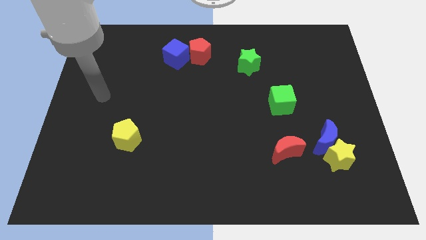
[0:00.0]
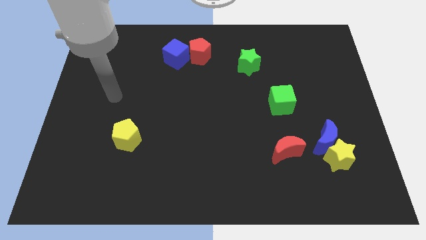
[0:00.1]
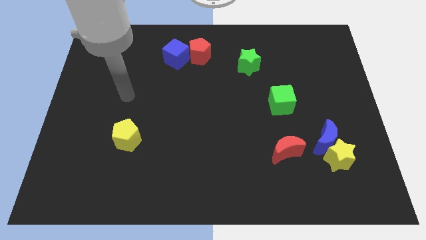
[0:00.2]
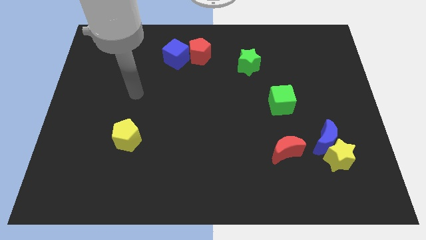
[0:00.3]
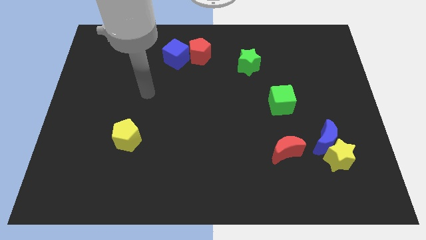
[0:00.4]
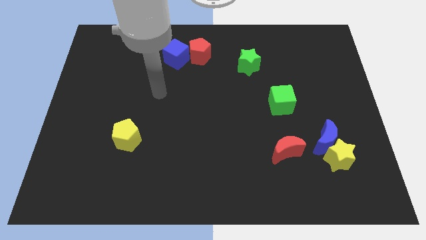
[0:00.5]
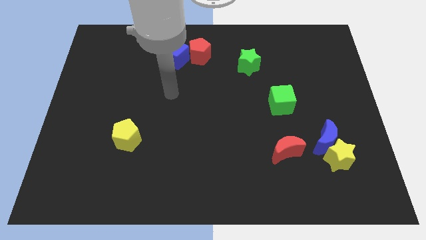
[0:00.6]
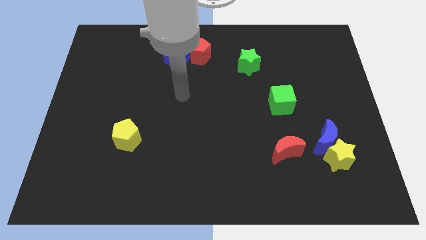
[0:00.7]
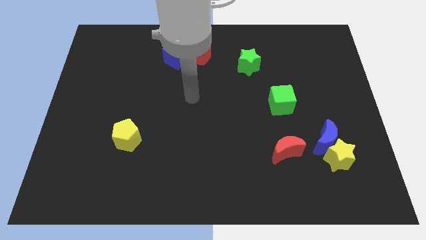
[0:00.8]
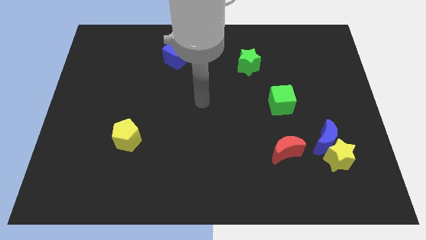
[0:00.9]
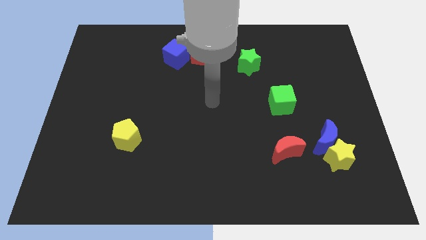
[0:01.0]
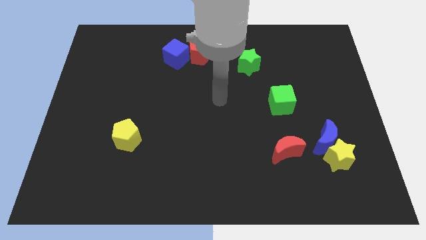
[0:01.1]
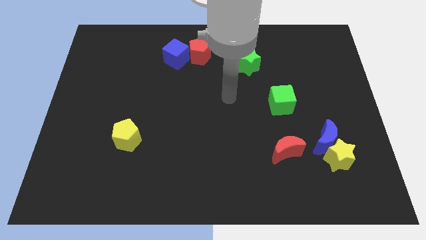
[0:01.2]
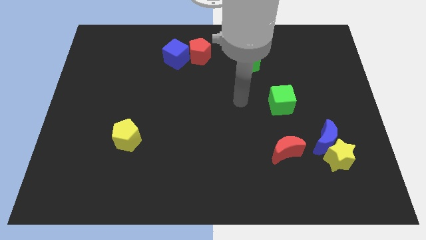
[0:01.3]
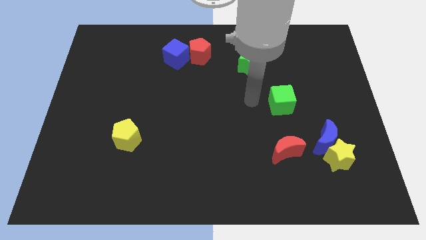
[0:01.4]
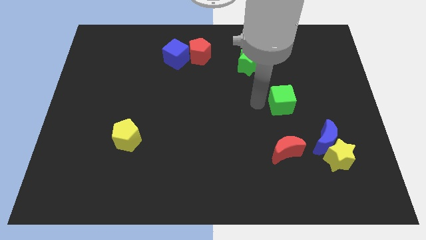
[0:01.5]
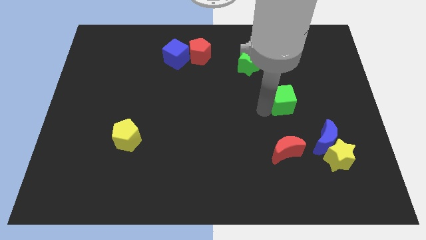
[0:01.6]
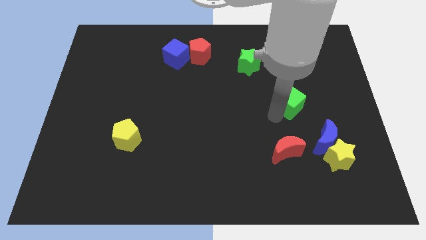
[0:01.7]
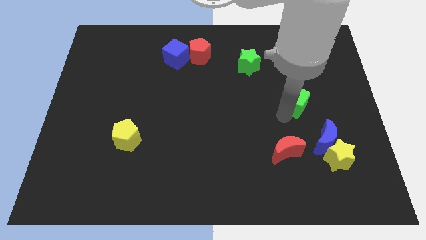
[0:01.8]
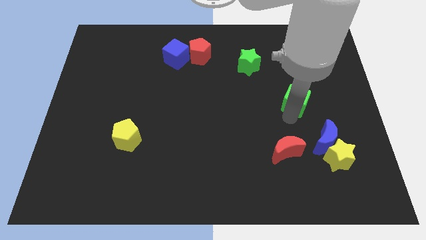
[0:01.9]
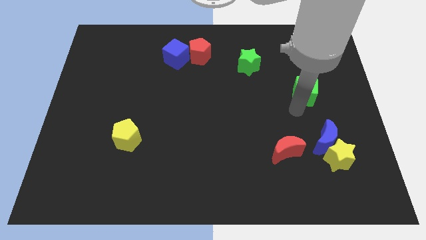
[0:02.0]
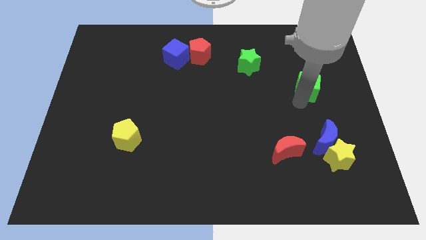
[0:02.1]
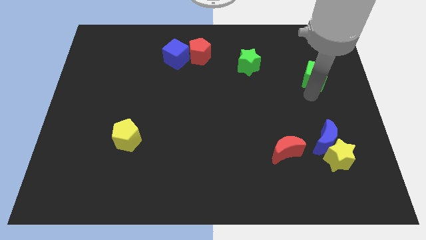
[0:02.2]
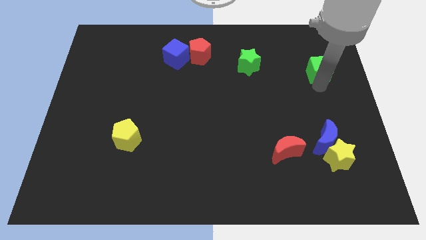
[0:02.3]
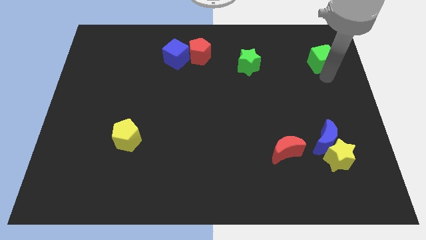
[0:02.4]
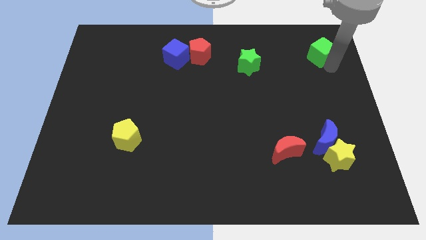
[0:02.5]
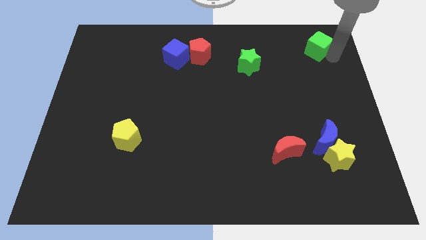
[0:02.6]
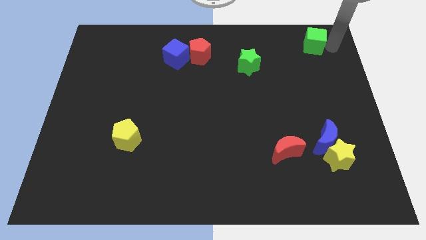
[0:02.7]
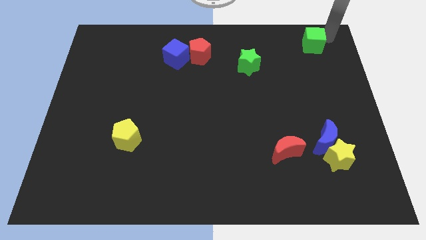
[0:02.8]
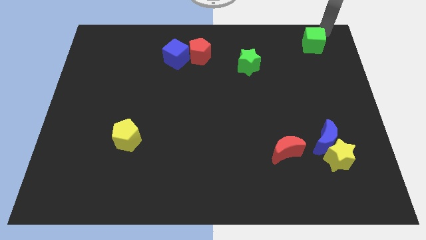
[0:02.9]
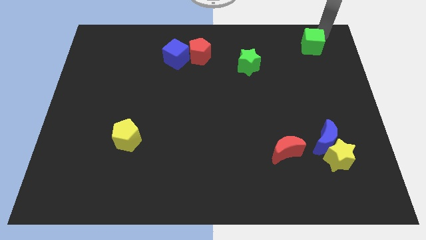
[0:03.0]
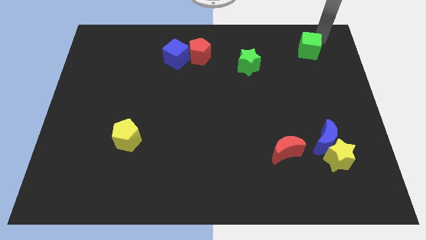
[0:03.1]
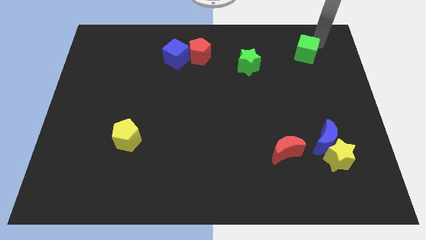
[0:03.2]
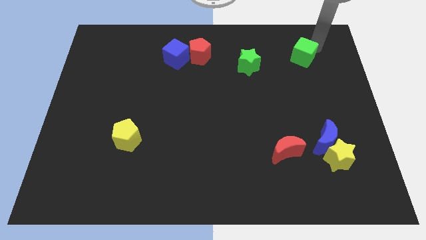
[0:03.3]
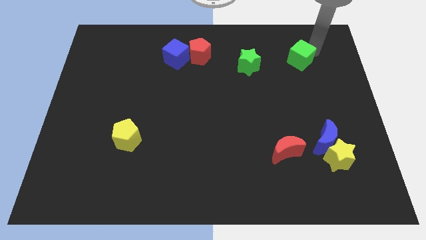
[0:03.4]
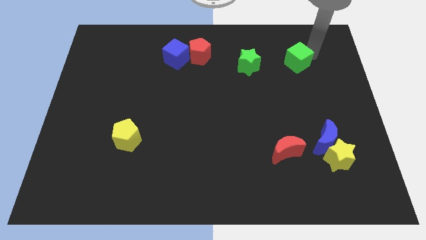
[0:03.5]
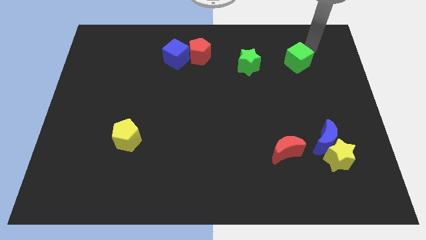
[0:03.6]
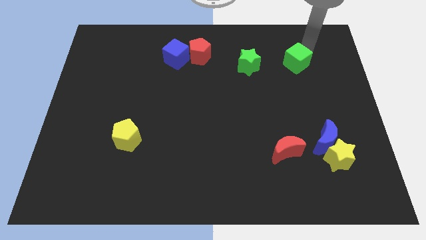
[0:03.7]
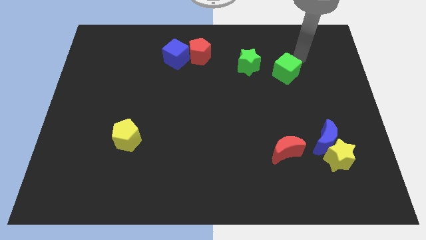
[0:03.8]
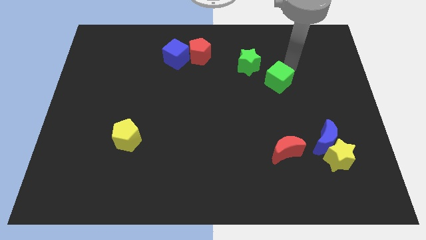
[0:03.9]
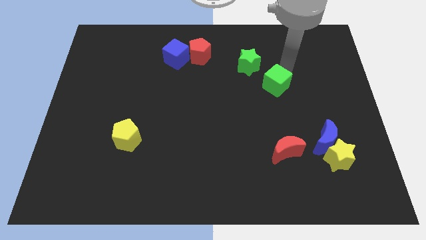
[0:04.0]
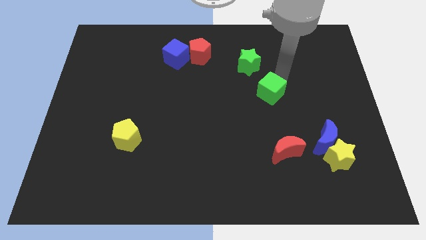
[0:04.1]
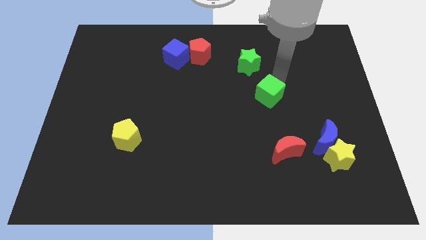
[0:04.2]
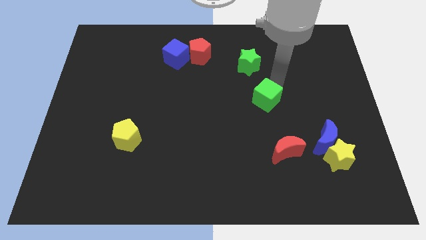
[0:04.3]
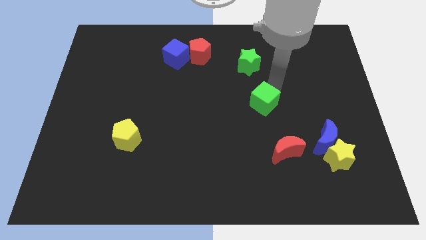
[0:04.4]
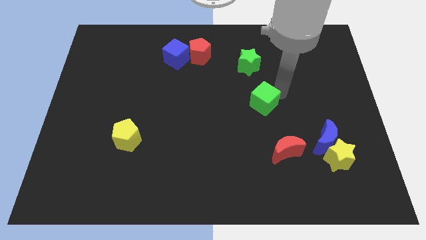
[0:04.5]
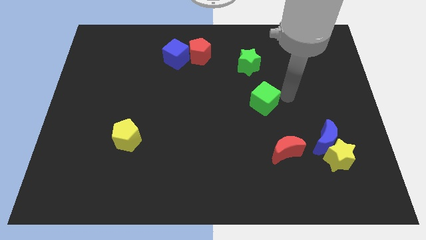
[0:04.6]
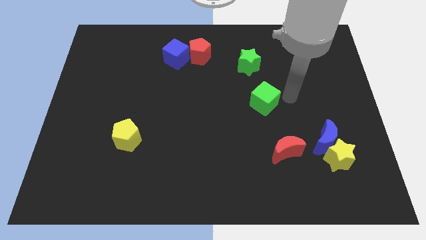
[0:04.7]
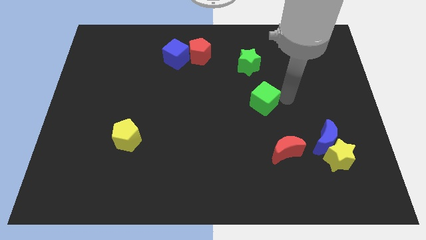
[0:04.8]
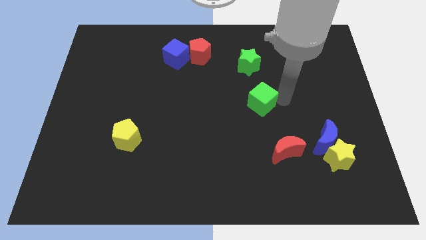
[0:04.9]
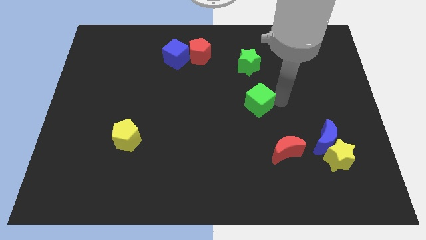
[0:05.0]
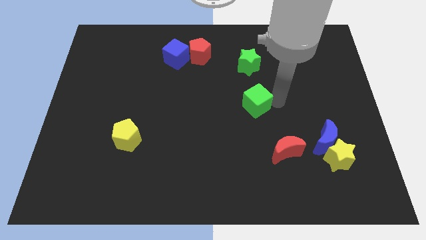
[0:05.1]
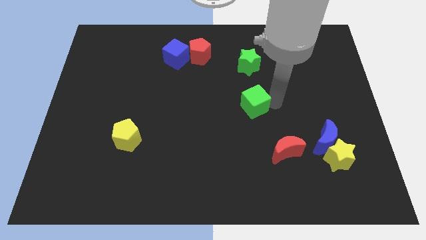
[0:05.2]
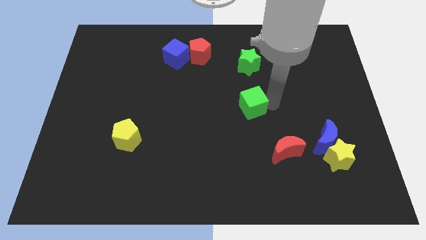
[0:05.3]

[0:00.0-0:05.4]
slightly slide the green cube to the left

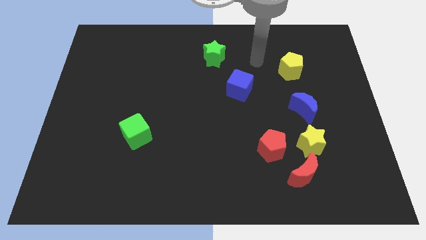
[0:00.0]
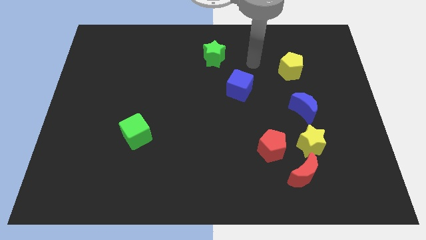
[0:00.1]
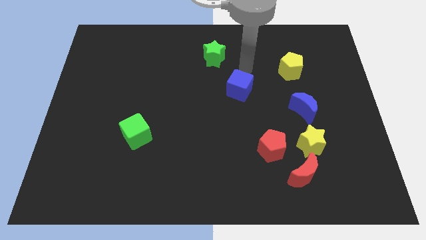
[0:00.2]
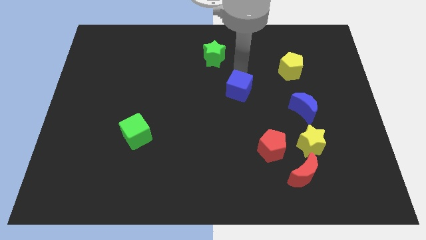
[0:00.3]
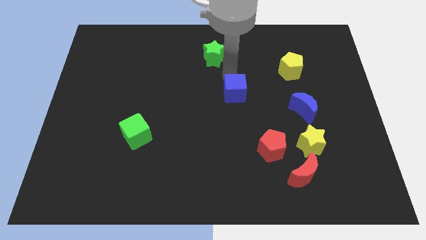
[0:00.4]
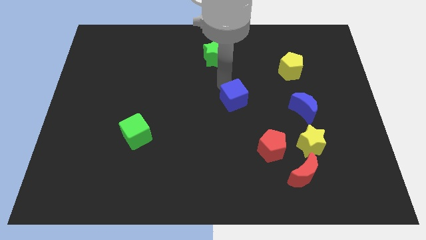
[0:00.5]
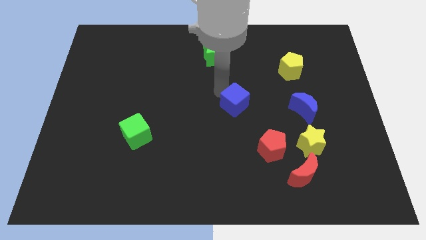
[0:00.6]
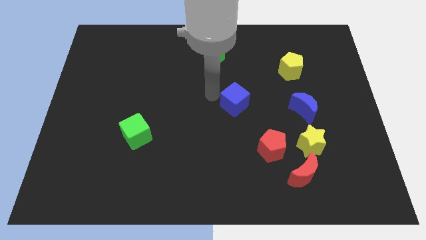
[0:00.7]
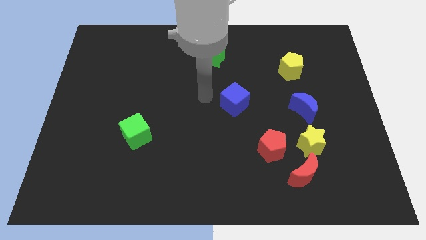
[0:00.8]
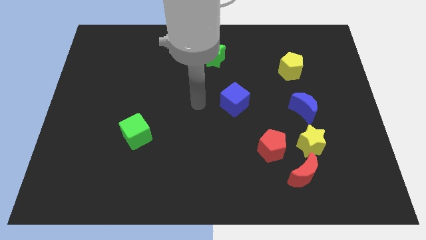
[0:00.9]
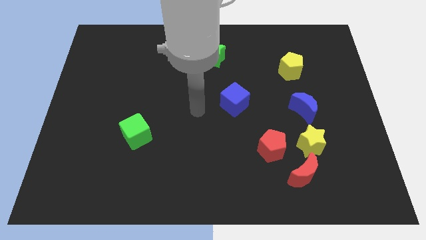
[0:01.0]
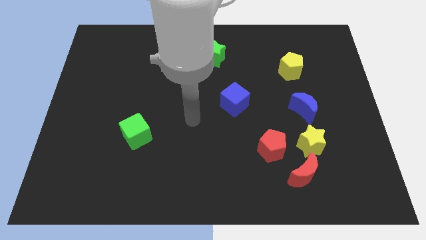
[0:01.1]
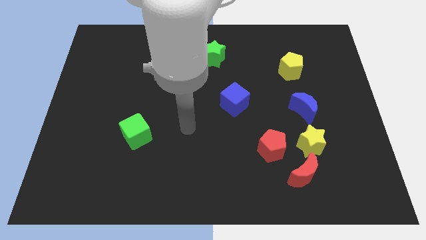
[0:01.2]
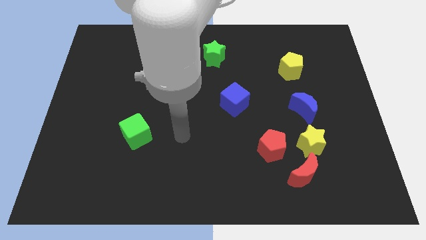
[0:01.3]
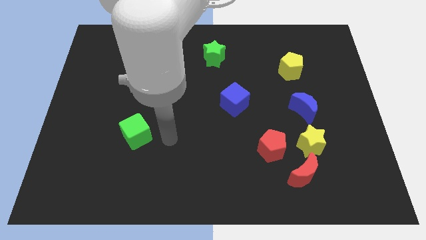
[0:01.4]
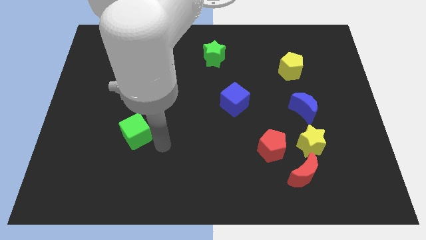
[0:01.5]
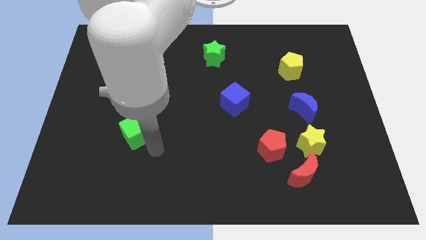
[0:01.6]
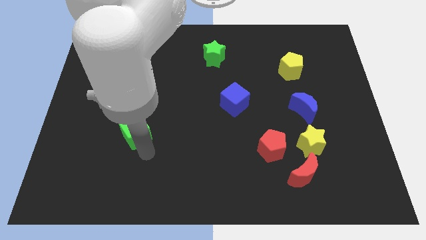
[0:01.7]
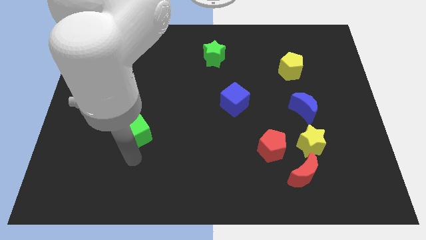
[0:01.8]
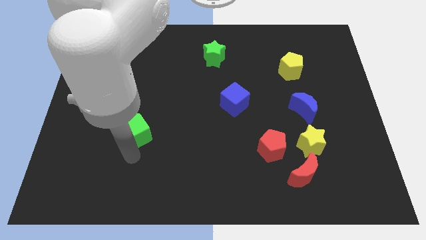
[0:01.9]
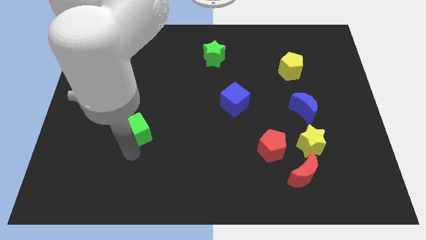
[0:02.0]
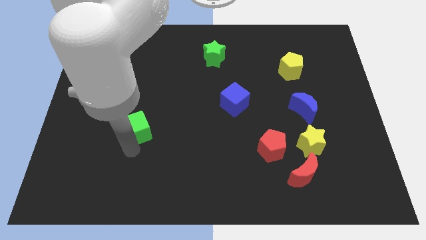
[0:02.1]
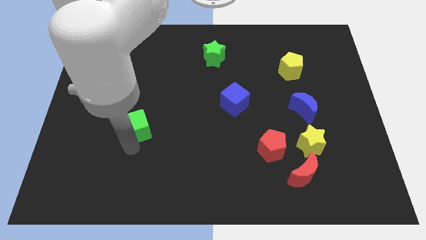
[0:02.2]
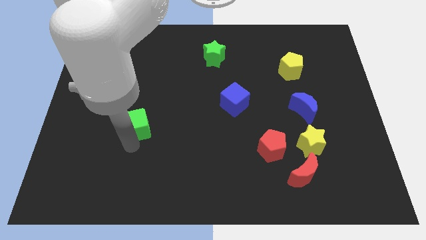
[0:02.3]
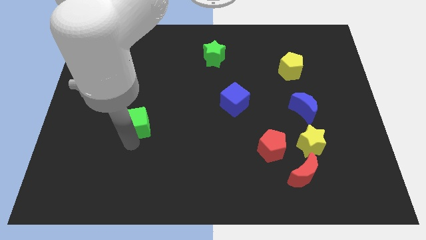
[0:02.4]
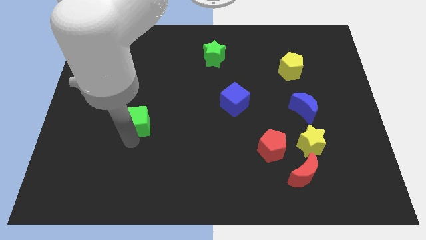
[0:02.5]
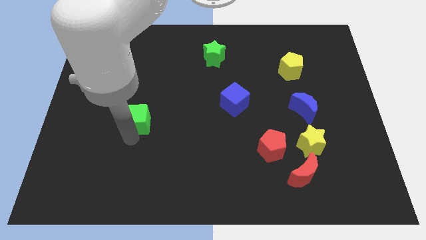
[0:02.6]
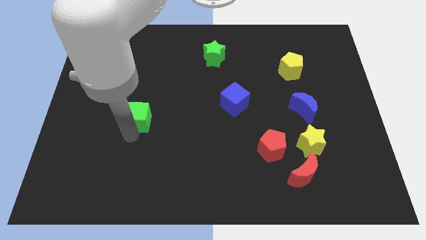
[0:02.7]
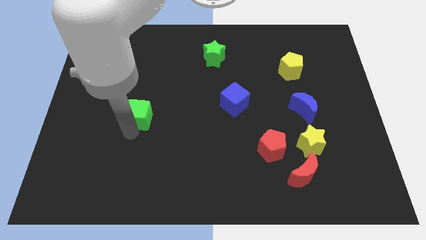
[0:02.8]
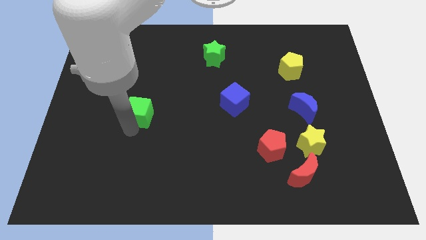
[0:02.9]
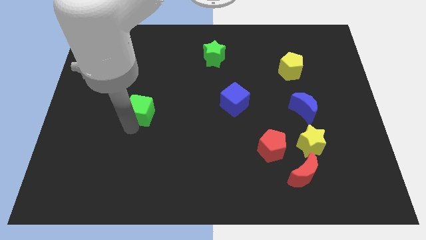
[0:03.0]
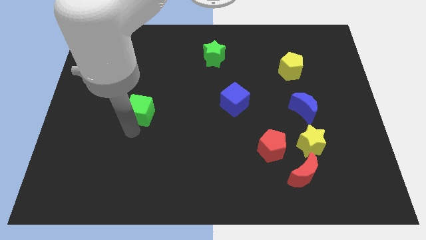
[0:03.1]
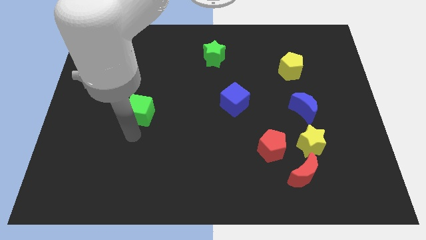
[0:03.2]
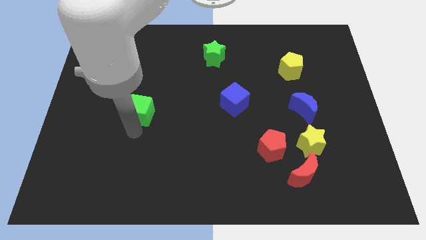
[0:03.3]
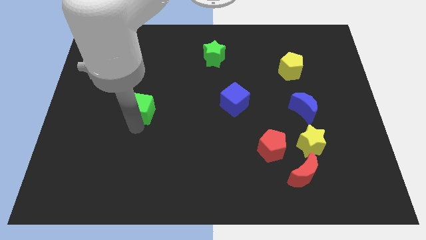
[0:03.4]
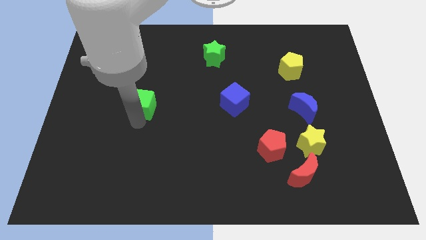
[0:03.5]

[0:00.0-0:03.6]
slightly slide the green cube up
